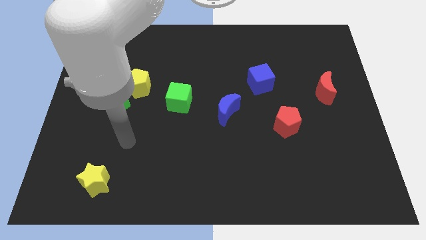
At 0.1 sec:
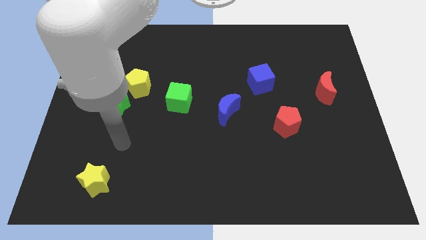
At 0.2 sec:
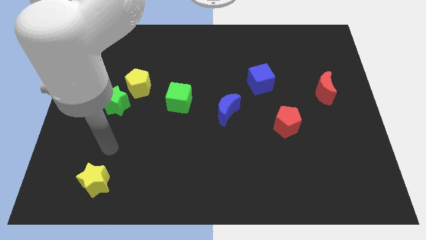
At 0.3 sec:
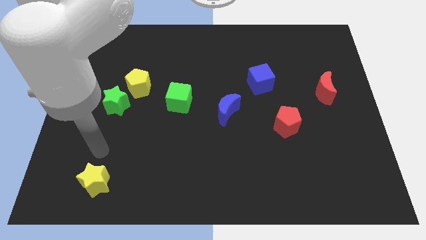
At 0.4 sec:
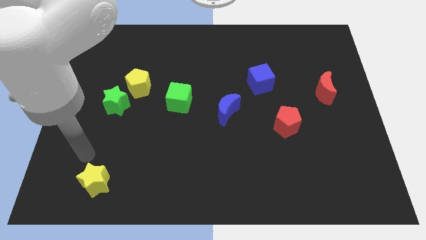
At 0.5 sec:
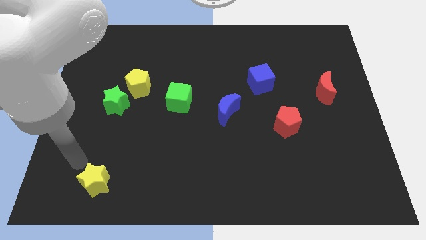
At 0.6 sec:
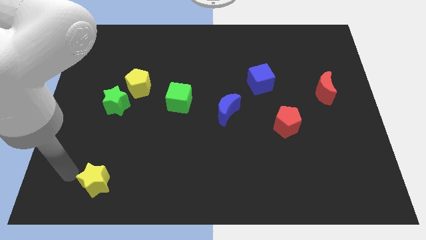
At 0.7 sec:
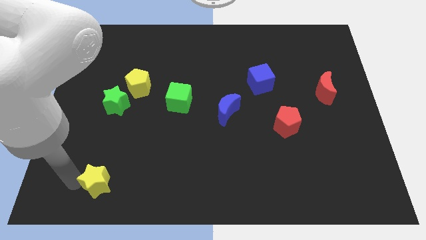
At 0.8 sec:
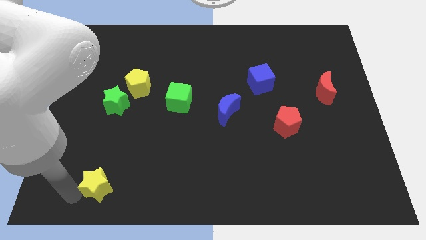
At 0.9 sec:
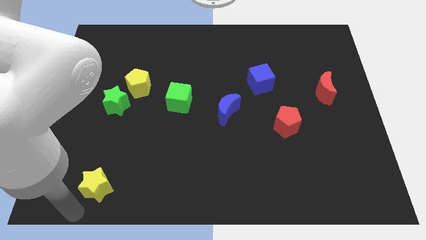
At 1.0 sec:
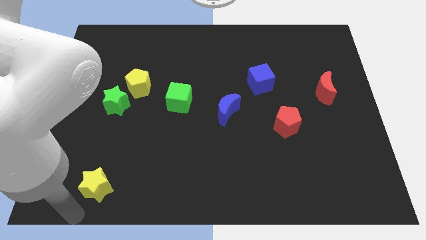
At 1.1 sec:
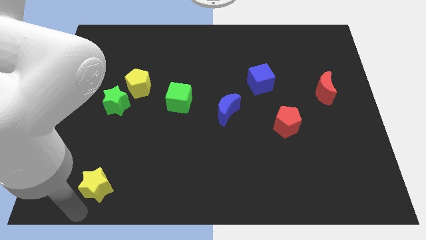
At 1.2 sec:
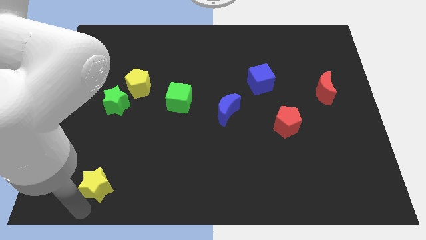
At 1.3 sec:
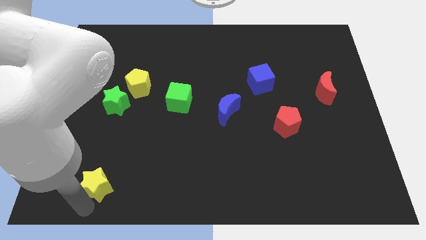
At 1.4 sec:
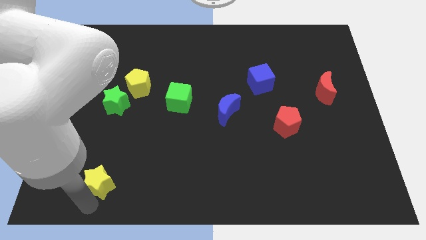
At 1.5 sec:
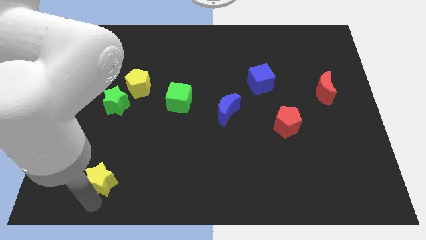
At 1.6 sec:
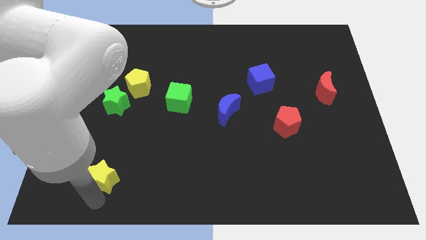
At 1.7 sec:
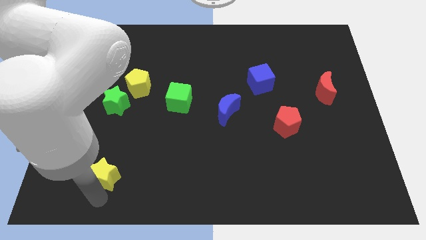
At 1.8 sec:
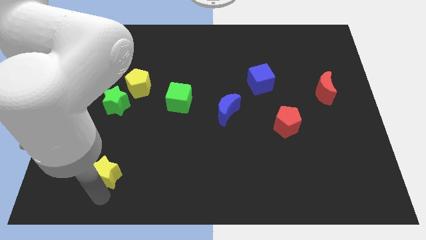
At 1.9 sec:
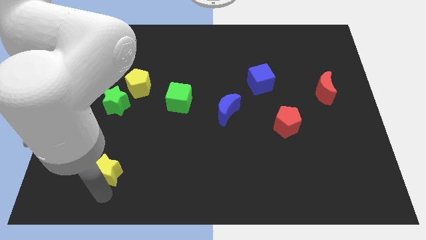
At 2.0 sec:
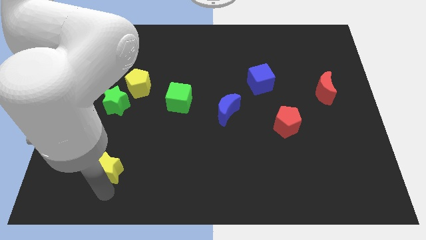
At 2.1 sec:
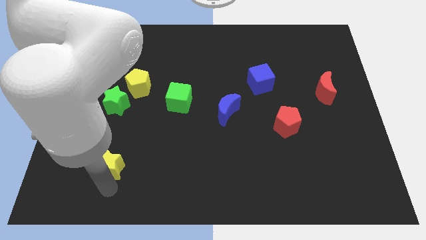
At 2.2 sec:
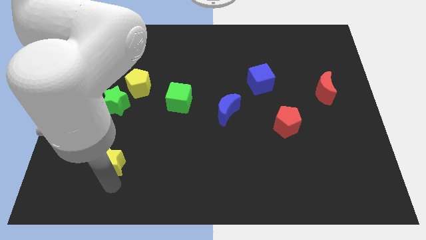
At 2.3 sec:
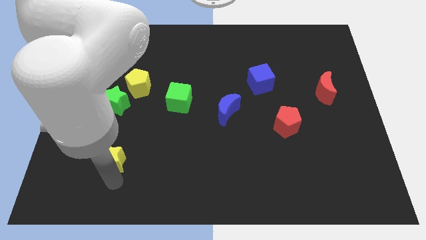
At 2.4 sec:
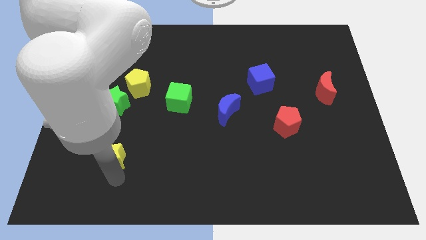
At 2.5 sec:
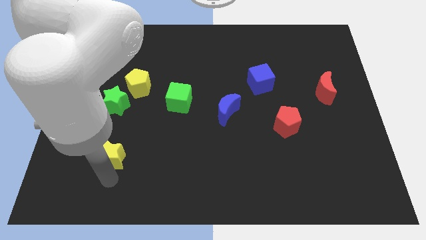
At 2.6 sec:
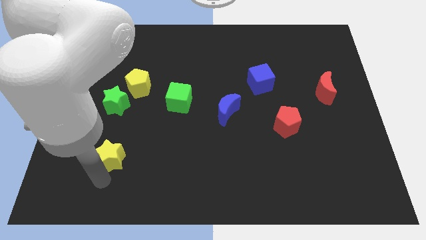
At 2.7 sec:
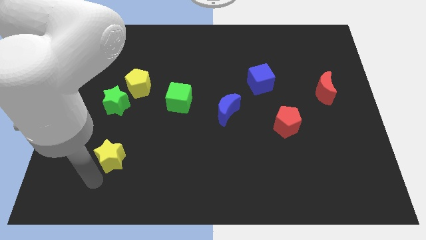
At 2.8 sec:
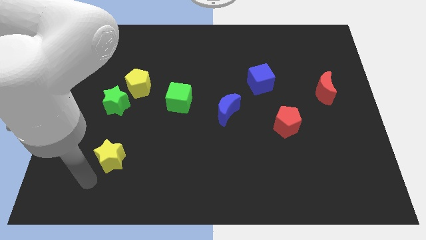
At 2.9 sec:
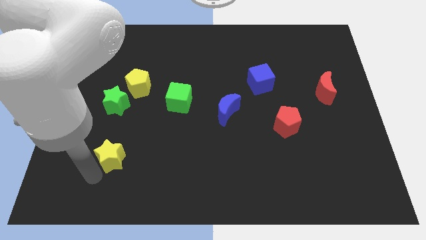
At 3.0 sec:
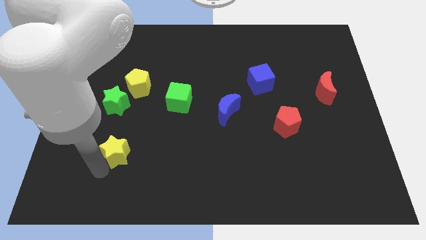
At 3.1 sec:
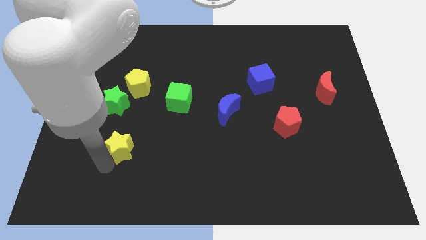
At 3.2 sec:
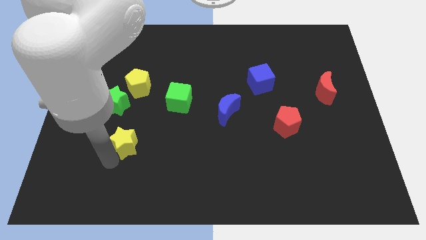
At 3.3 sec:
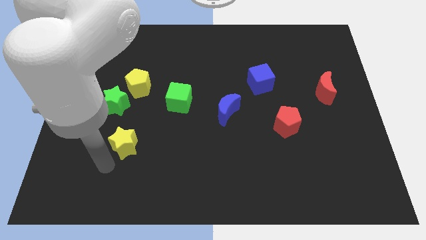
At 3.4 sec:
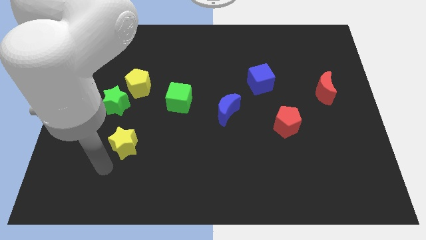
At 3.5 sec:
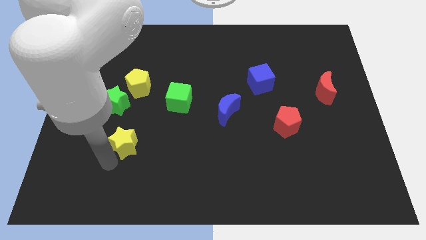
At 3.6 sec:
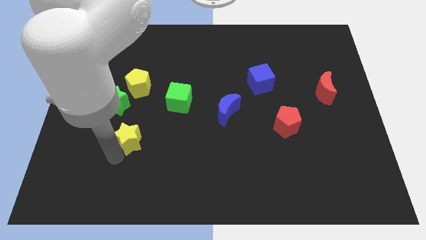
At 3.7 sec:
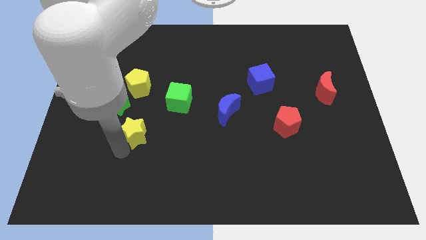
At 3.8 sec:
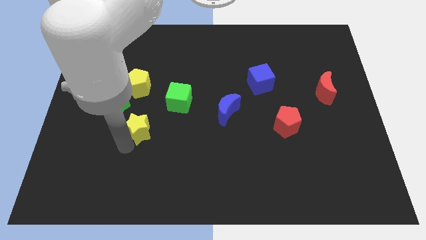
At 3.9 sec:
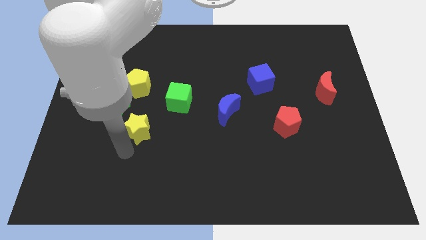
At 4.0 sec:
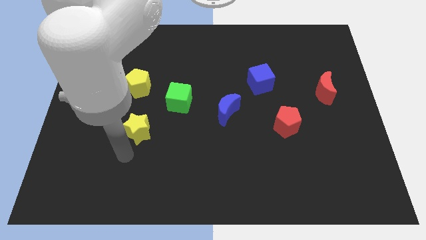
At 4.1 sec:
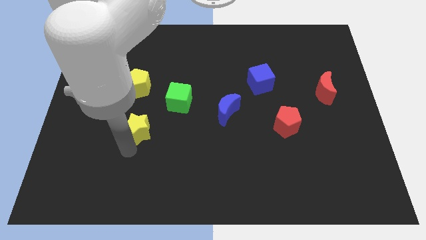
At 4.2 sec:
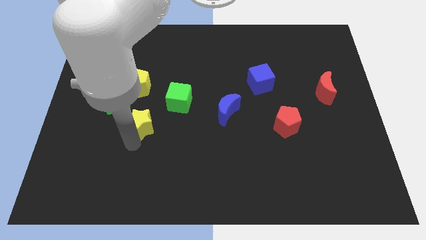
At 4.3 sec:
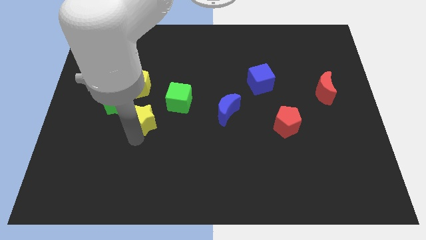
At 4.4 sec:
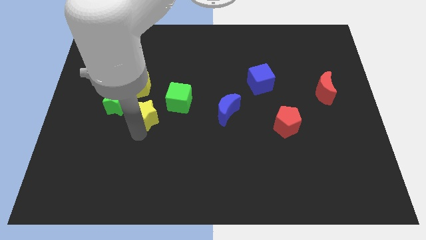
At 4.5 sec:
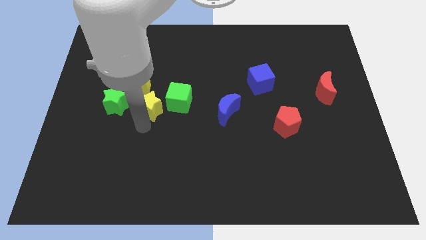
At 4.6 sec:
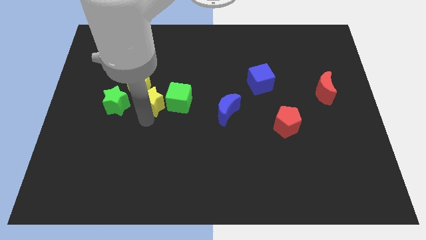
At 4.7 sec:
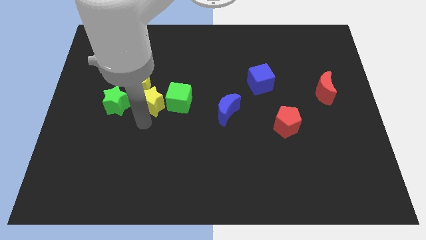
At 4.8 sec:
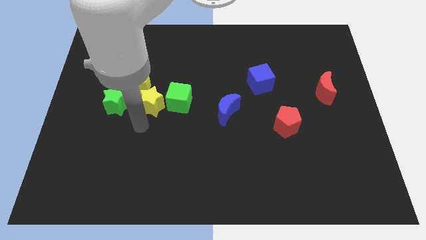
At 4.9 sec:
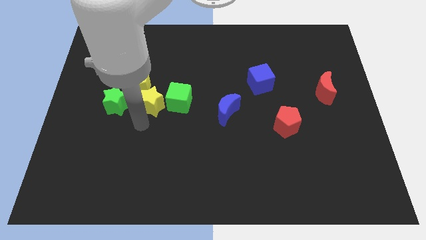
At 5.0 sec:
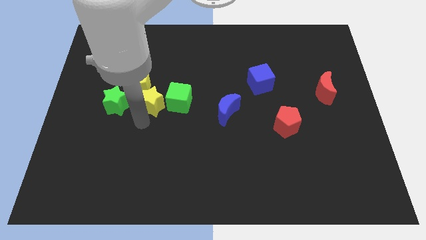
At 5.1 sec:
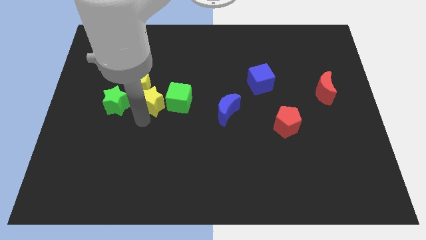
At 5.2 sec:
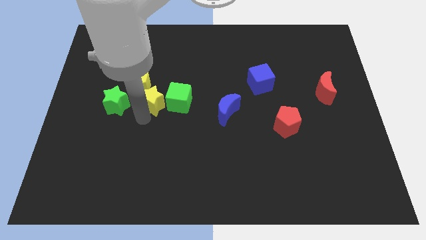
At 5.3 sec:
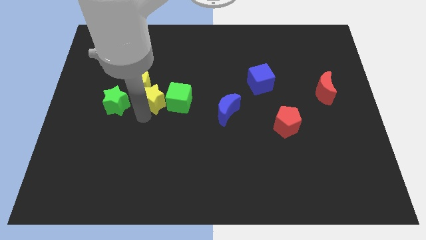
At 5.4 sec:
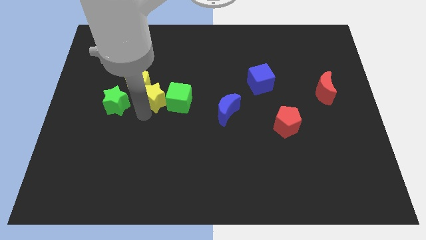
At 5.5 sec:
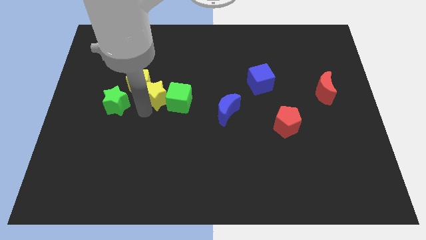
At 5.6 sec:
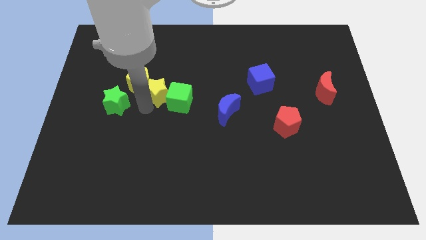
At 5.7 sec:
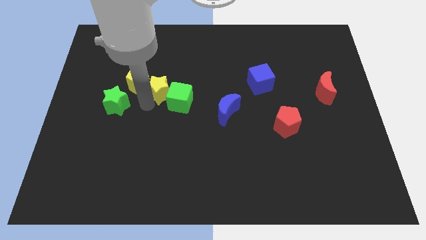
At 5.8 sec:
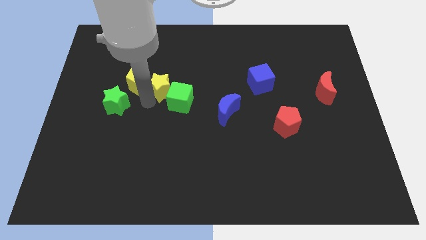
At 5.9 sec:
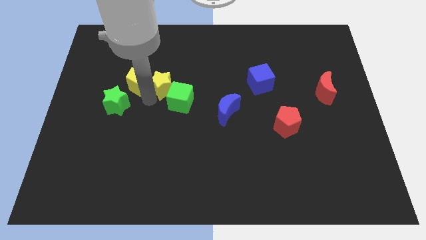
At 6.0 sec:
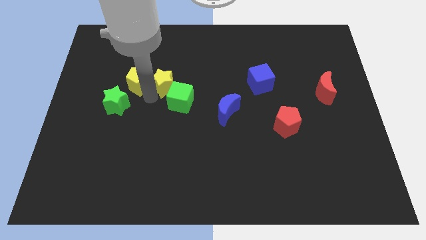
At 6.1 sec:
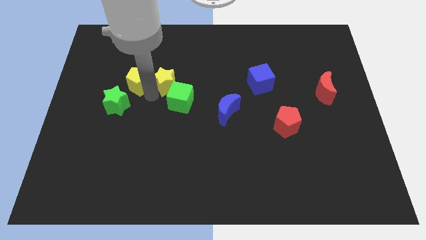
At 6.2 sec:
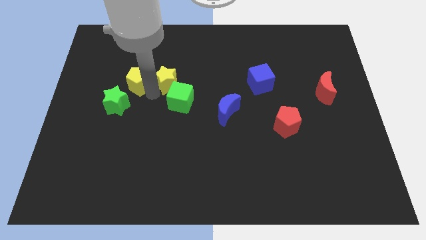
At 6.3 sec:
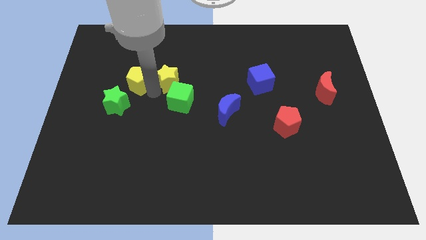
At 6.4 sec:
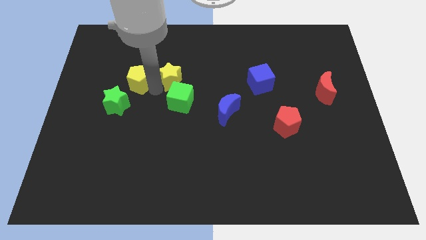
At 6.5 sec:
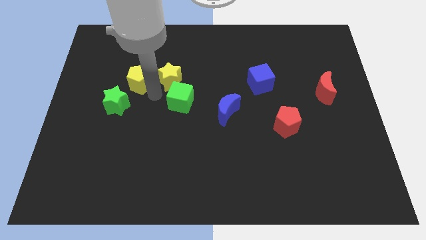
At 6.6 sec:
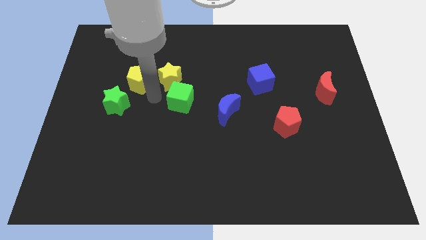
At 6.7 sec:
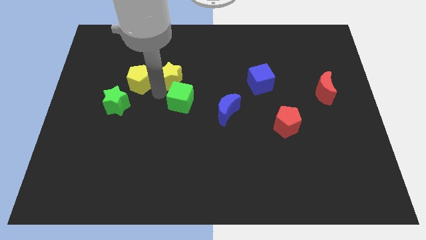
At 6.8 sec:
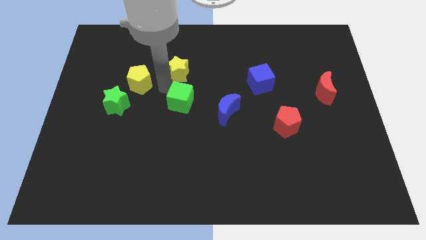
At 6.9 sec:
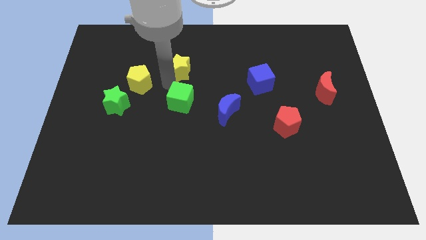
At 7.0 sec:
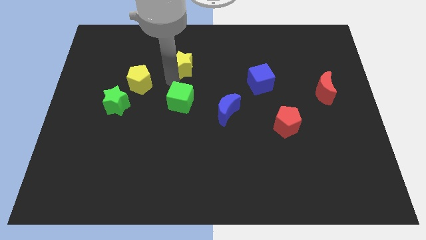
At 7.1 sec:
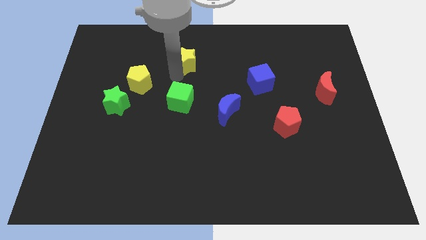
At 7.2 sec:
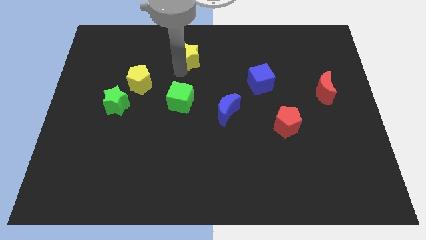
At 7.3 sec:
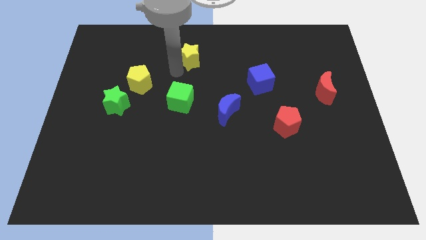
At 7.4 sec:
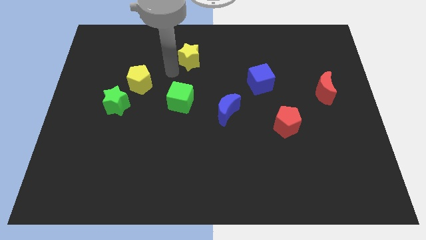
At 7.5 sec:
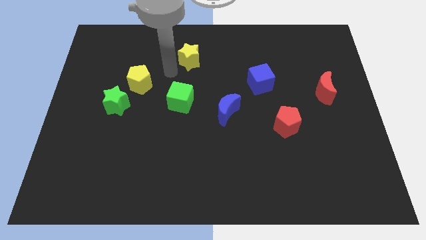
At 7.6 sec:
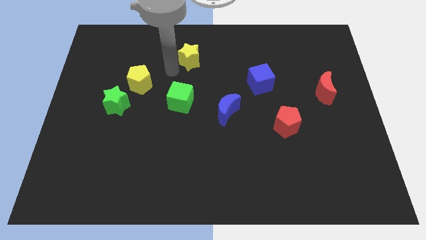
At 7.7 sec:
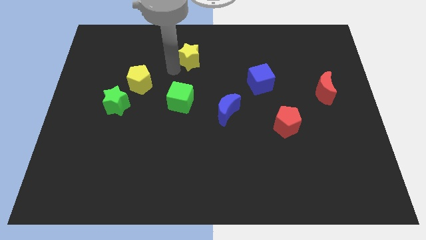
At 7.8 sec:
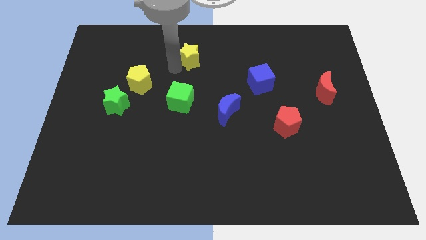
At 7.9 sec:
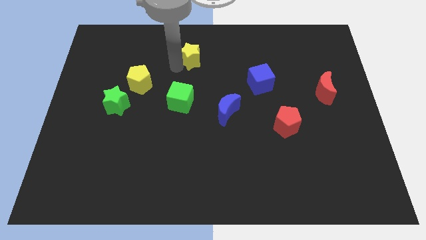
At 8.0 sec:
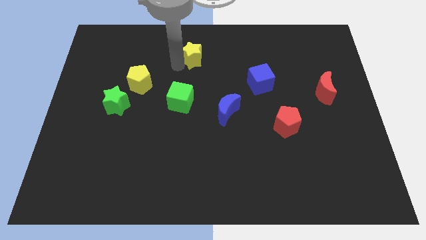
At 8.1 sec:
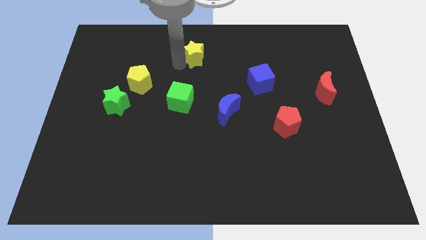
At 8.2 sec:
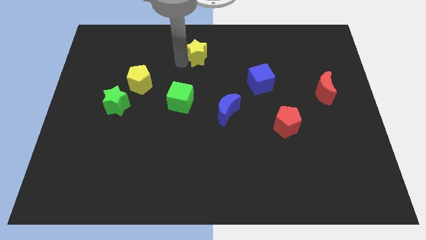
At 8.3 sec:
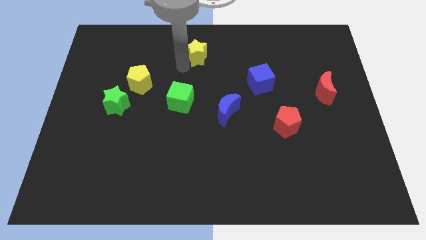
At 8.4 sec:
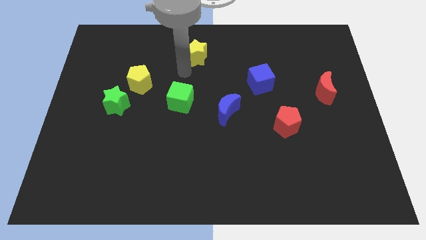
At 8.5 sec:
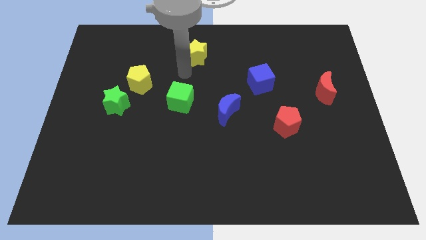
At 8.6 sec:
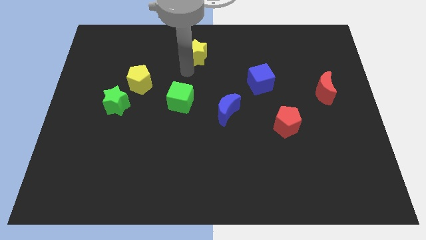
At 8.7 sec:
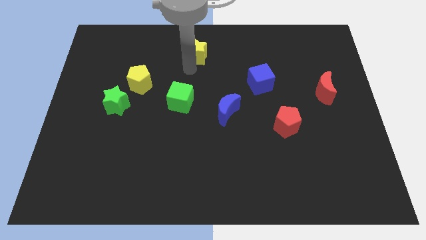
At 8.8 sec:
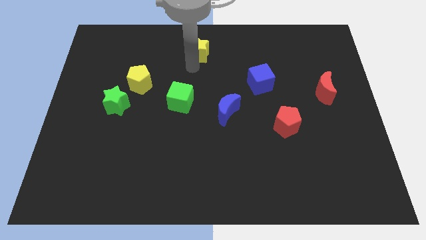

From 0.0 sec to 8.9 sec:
put the yellow star to the towards your base
